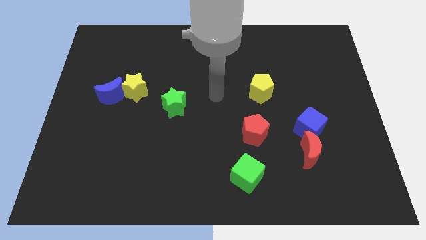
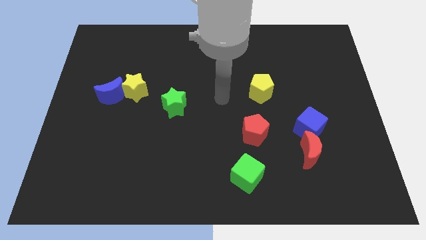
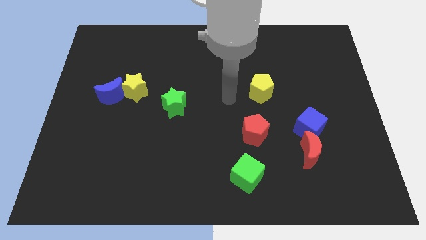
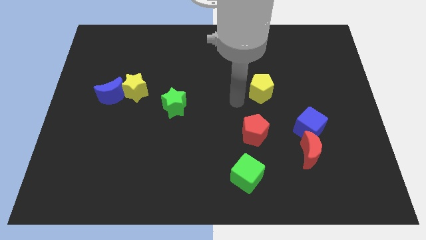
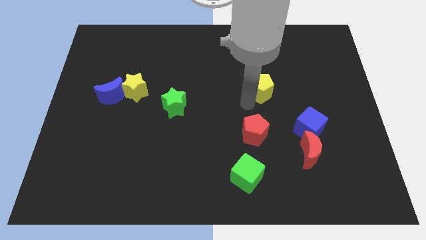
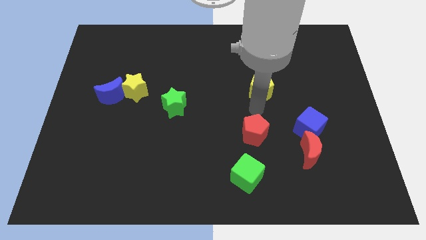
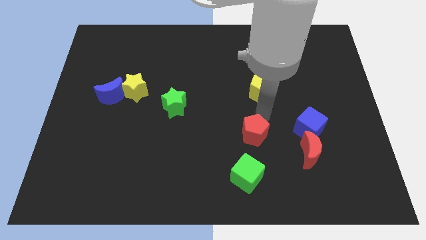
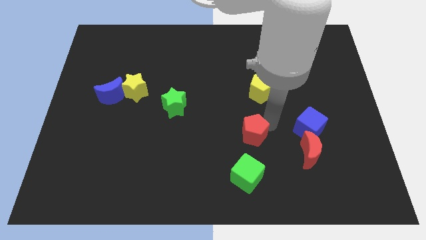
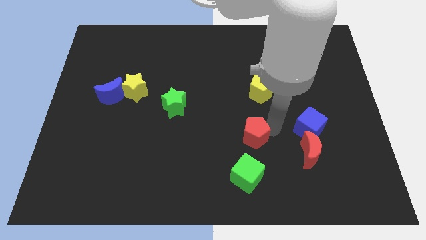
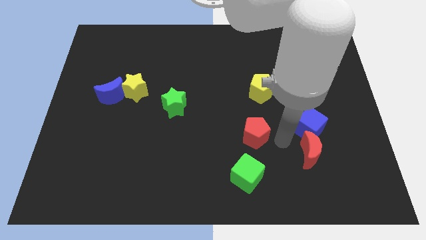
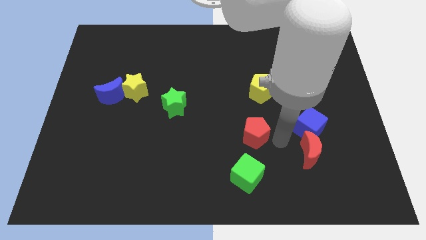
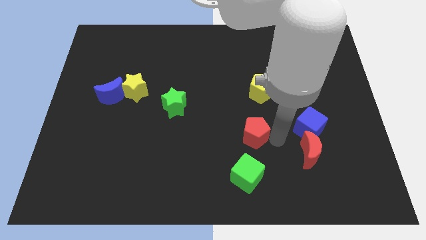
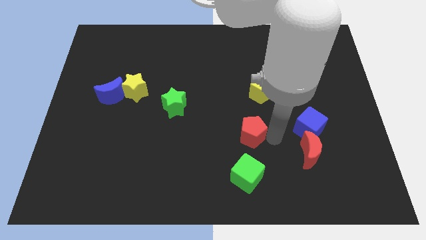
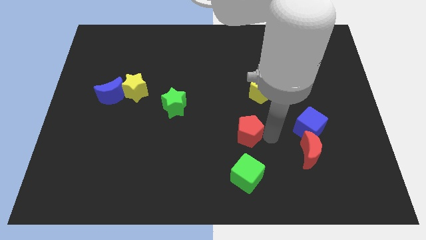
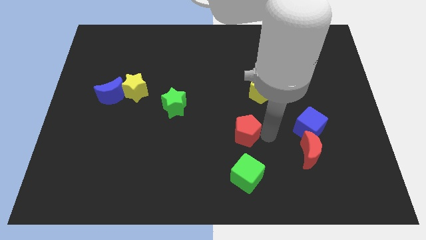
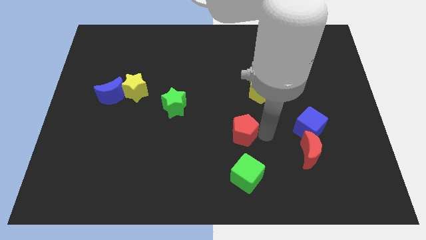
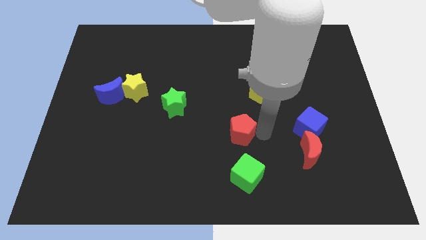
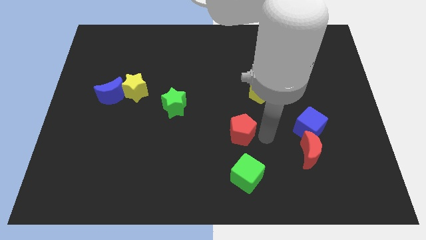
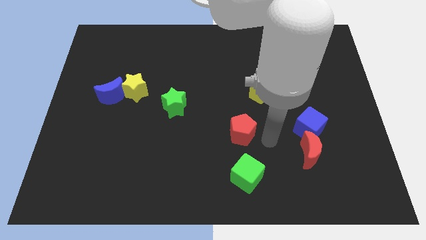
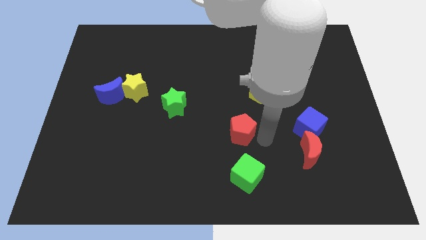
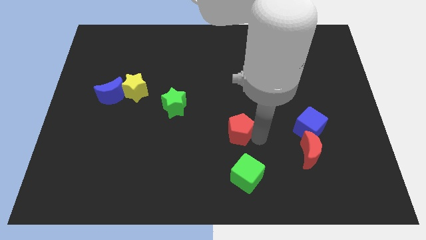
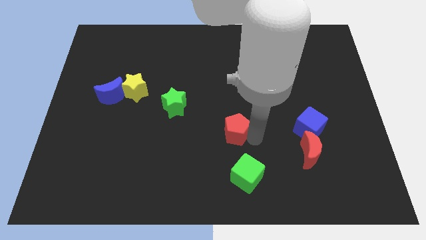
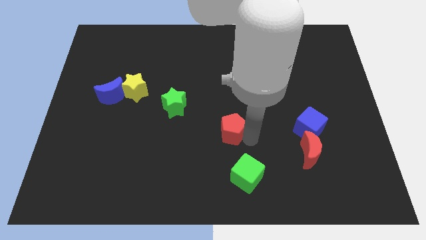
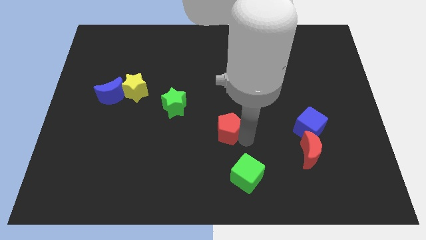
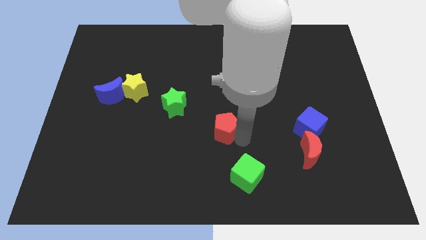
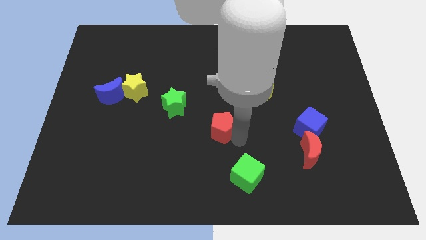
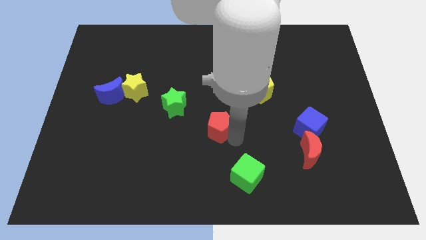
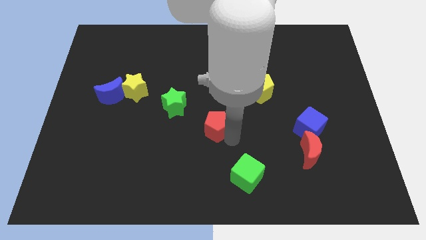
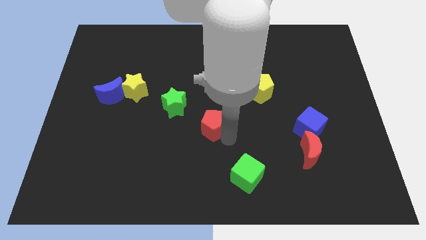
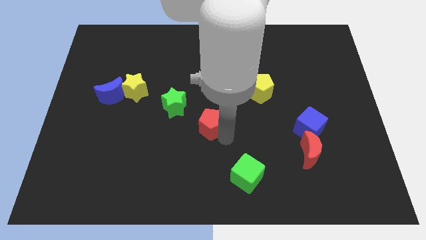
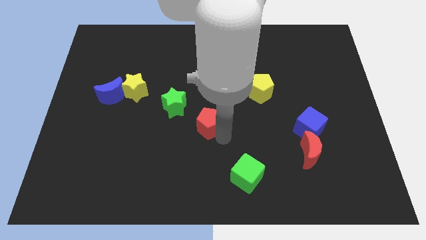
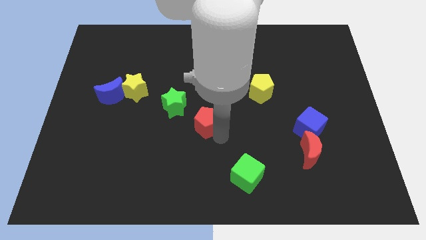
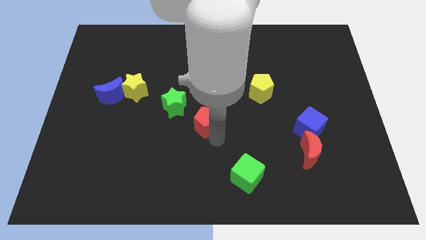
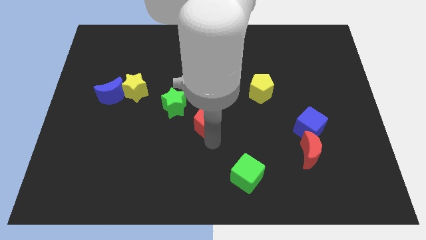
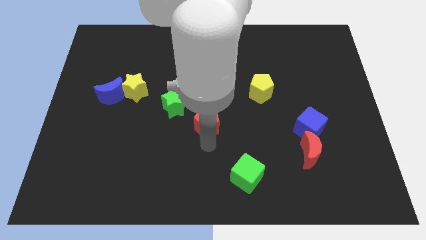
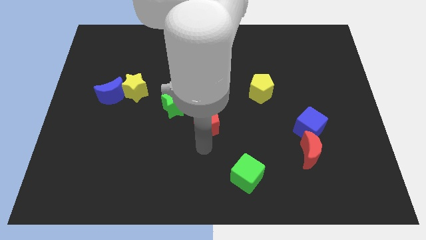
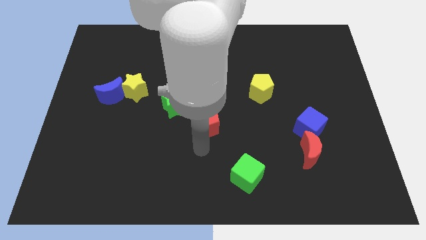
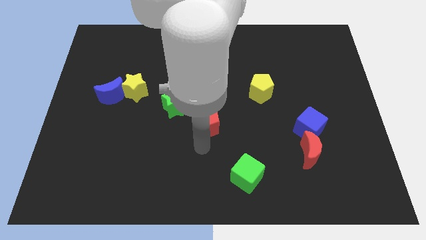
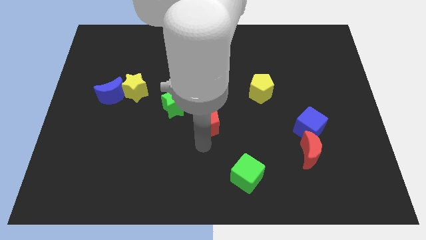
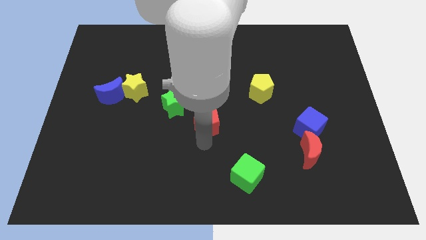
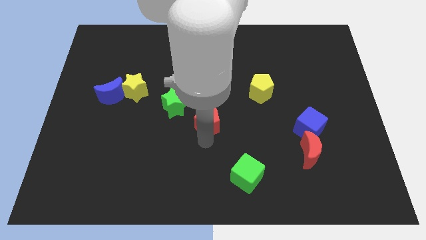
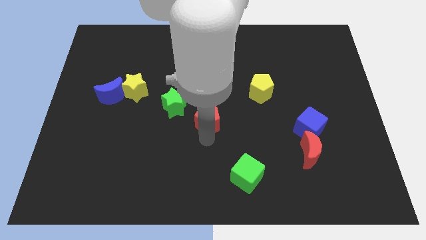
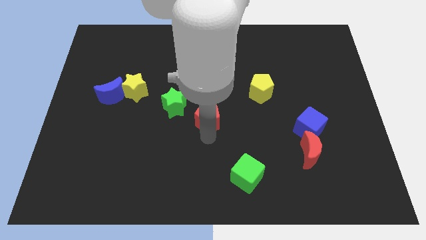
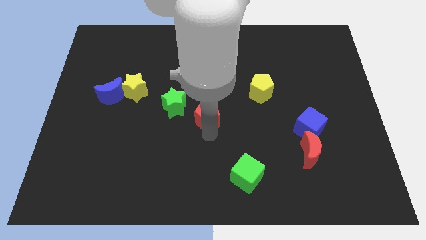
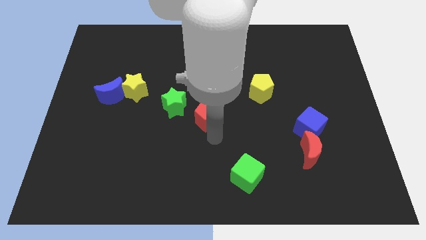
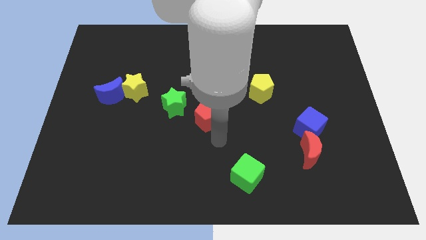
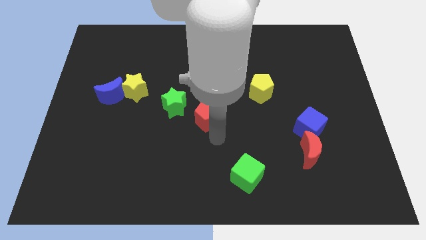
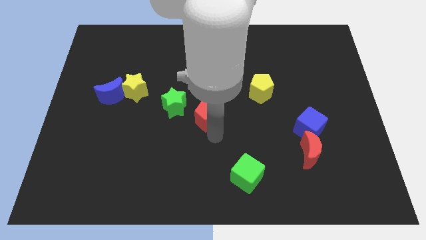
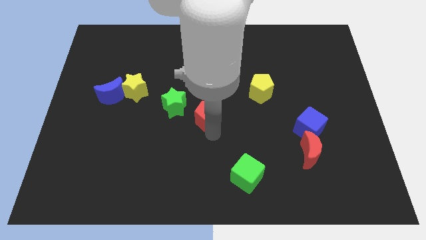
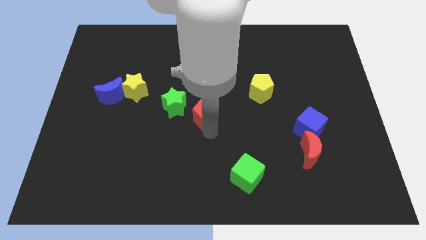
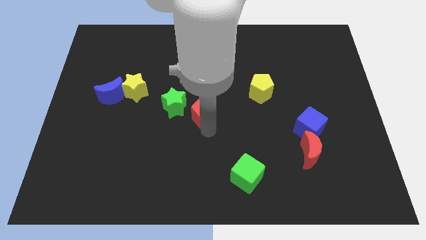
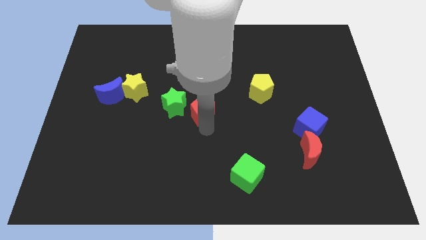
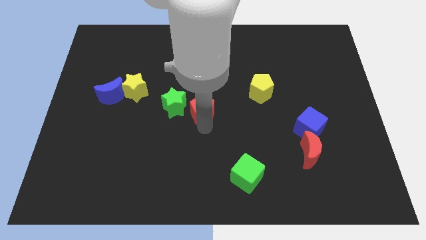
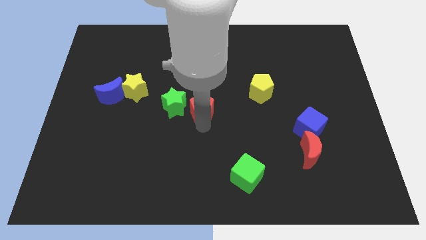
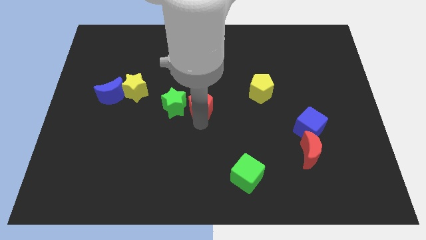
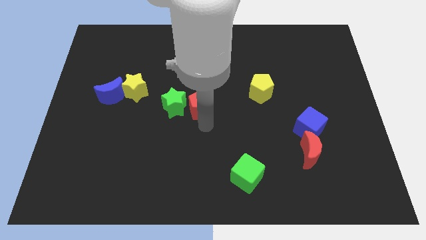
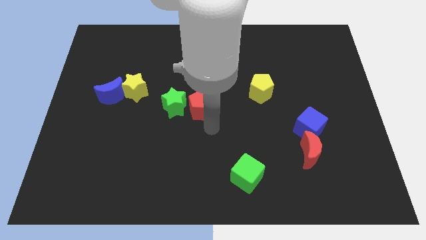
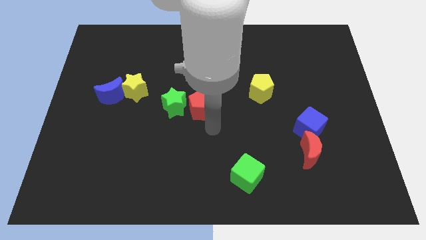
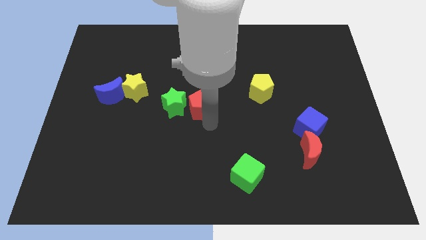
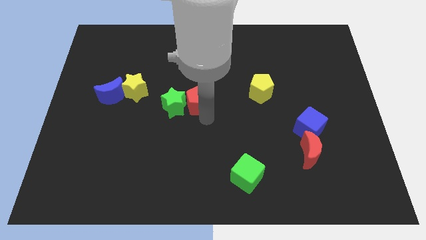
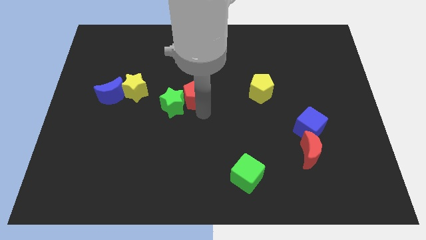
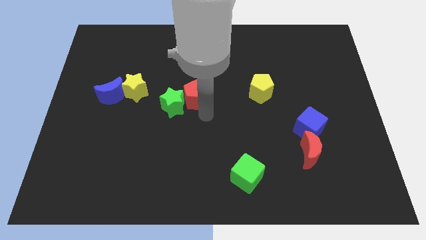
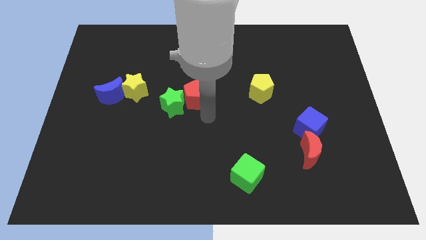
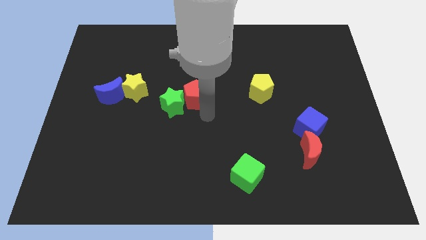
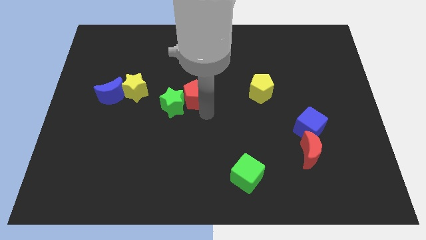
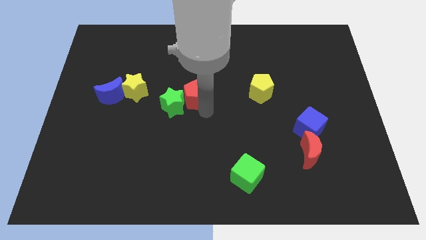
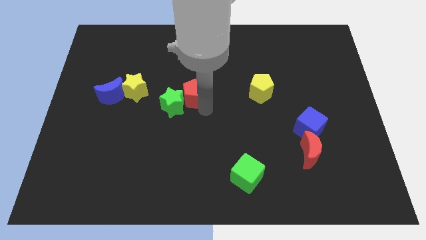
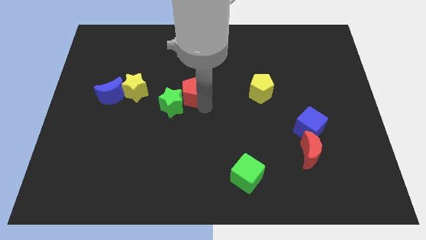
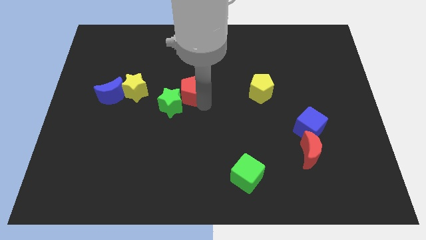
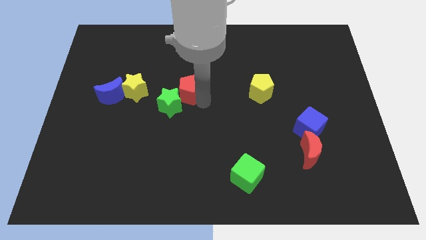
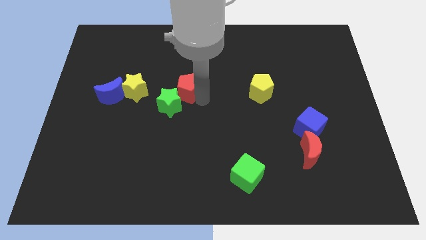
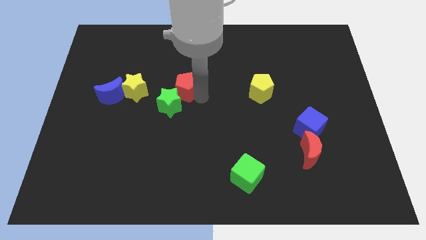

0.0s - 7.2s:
move the red pentagon upwards and left

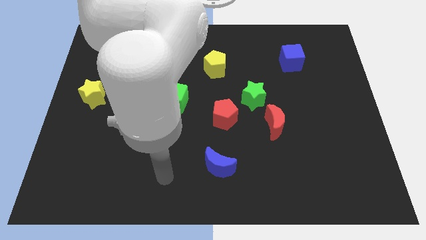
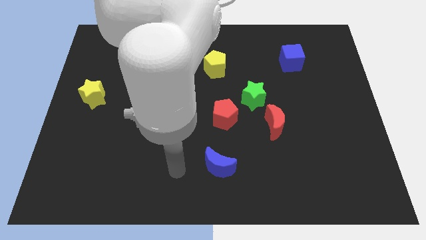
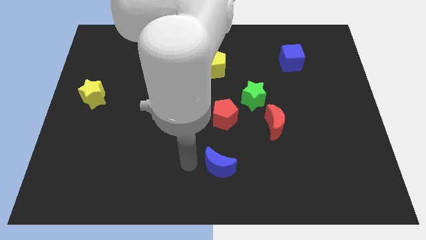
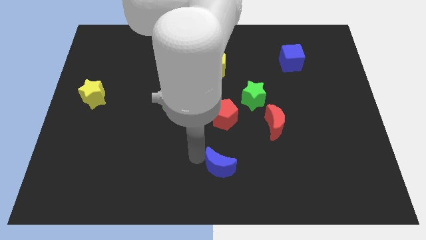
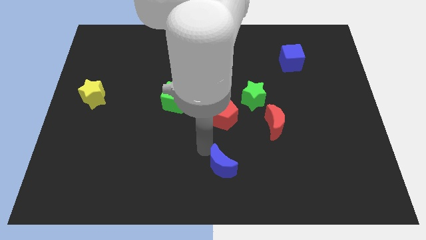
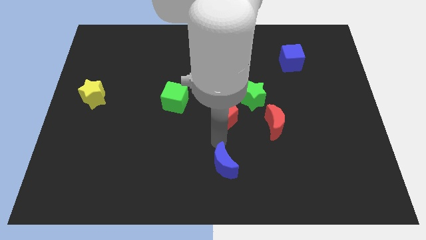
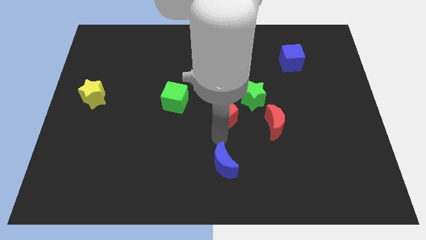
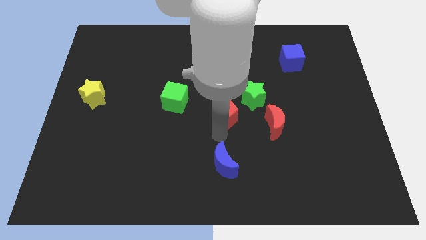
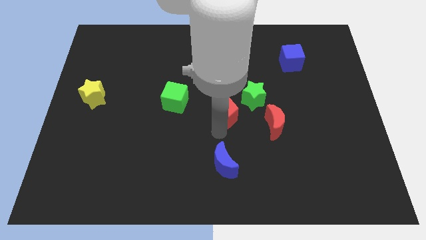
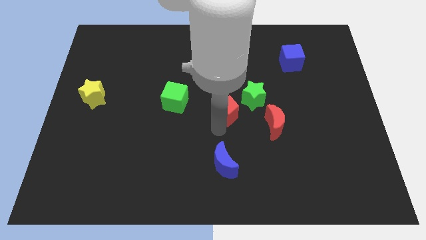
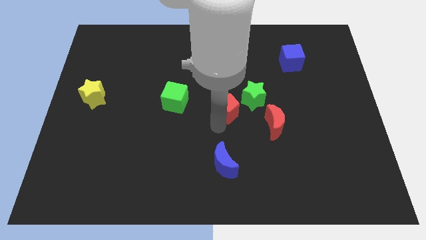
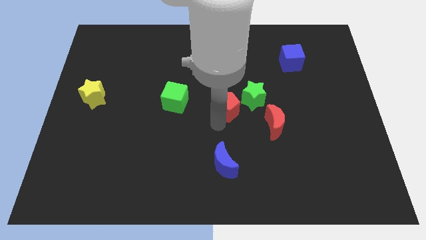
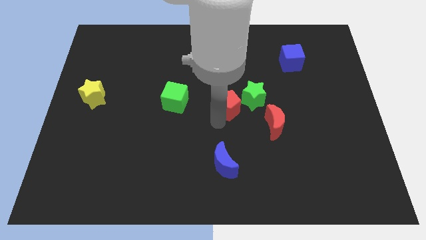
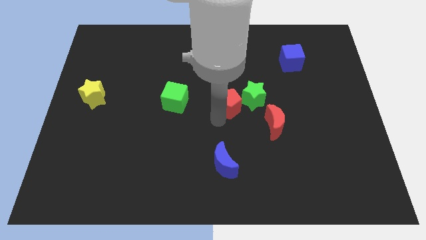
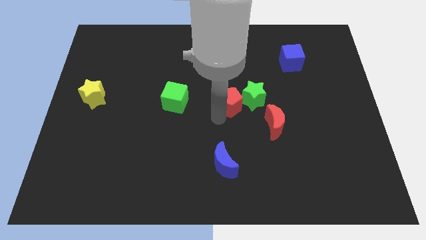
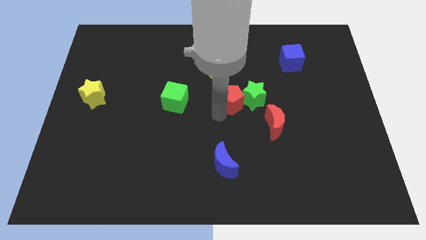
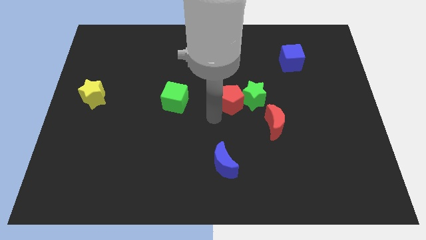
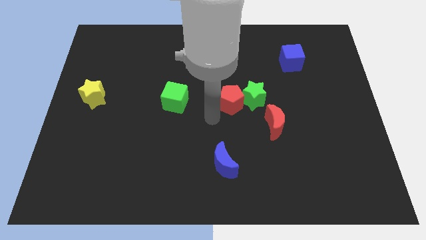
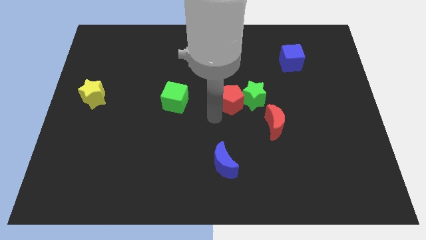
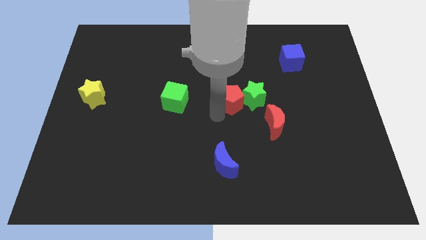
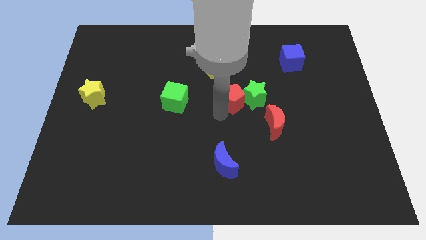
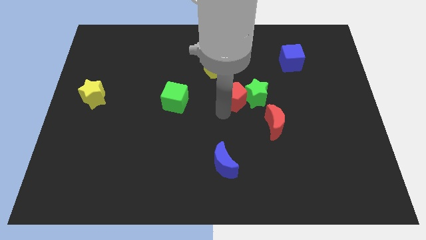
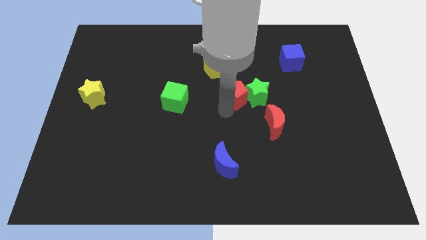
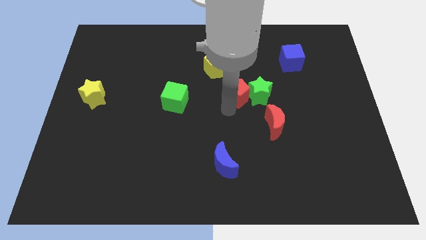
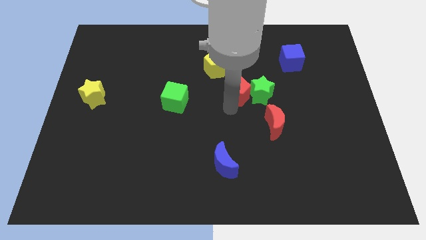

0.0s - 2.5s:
slightly push the red pentagon up and right
